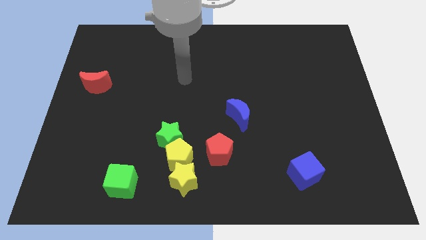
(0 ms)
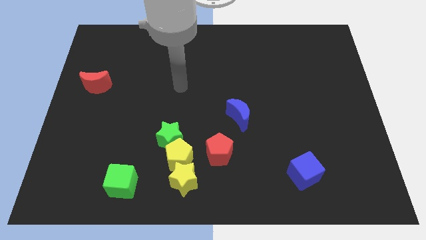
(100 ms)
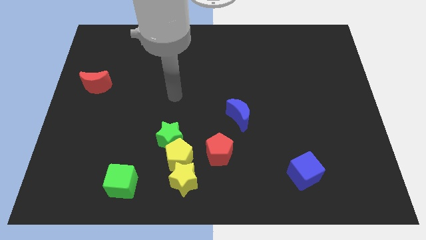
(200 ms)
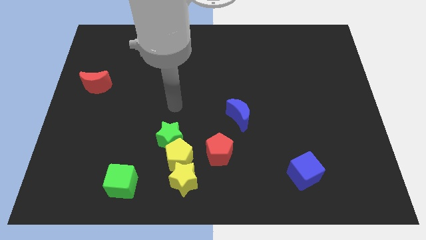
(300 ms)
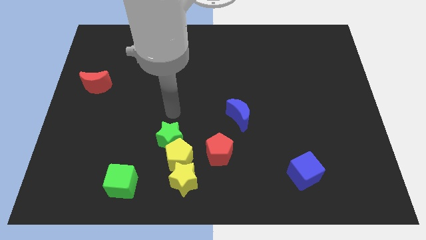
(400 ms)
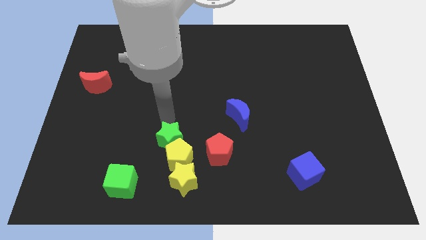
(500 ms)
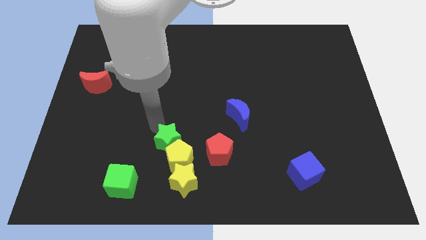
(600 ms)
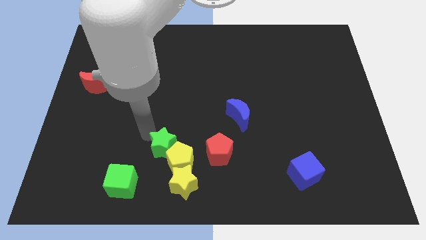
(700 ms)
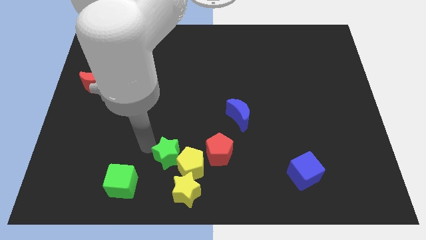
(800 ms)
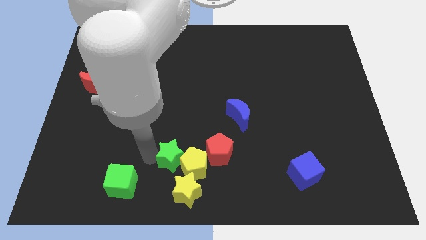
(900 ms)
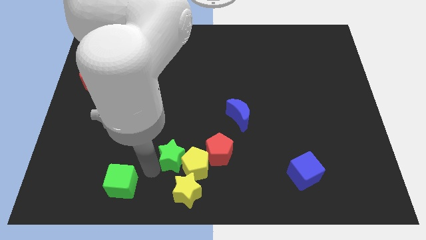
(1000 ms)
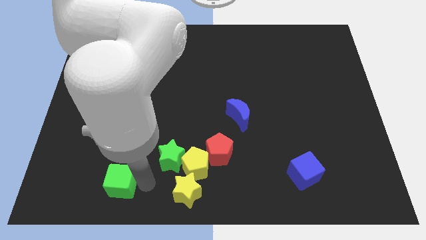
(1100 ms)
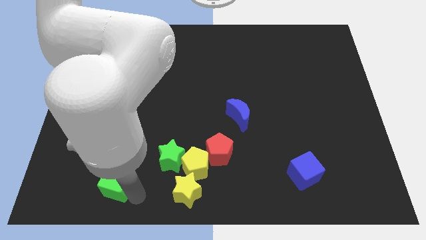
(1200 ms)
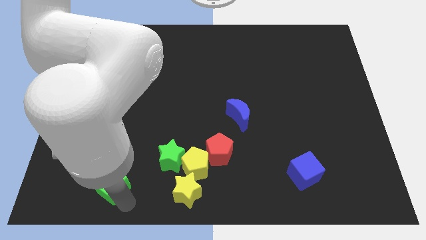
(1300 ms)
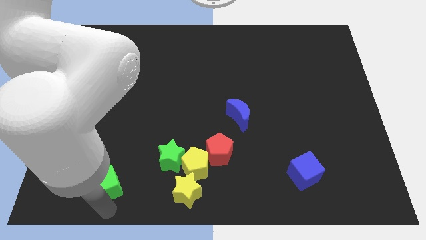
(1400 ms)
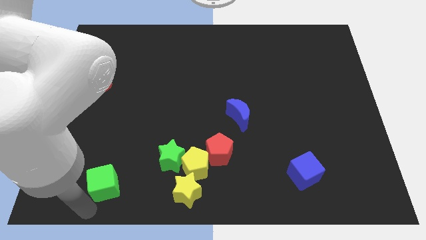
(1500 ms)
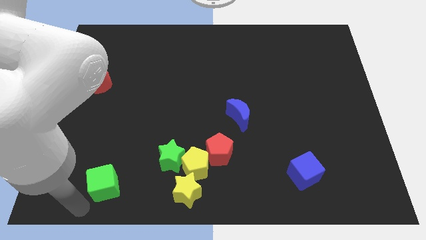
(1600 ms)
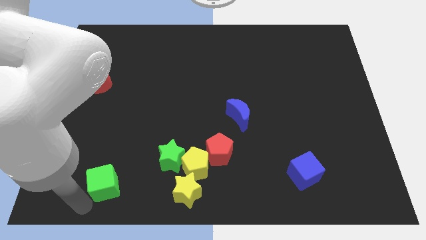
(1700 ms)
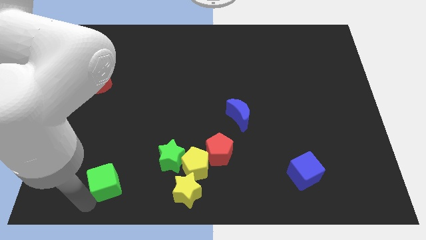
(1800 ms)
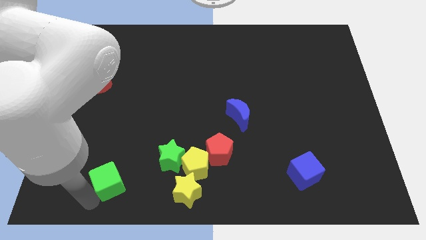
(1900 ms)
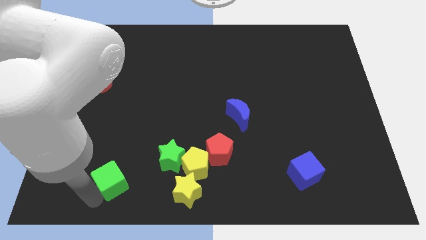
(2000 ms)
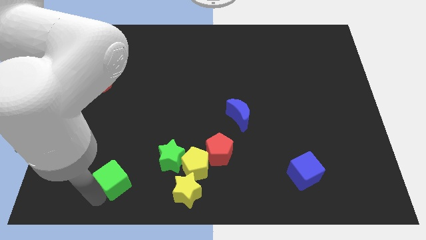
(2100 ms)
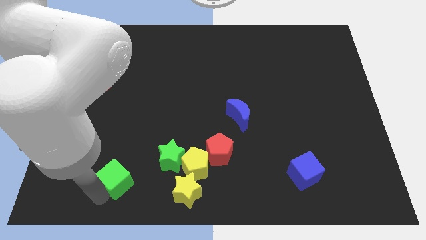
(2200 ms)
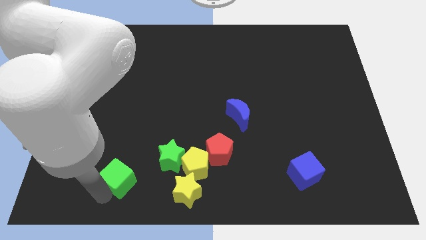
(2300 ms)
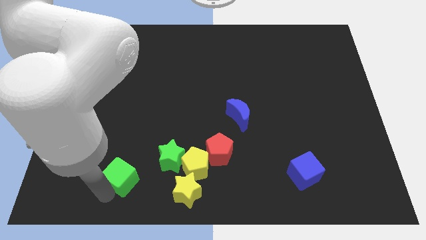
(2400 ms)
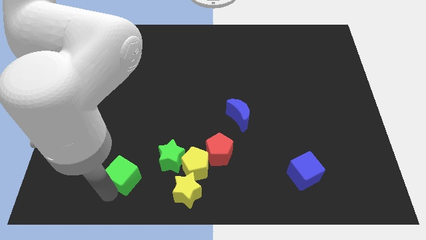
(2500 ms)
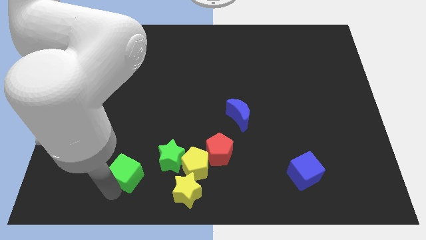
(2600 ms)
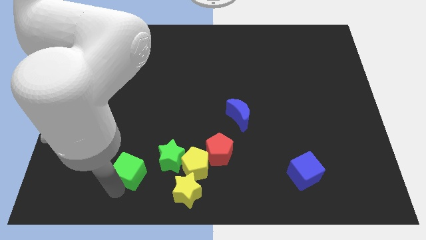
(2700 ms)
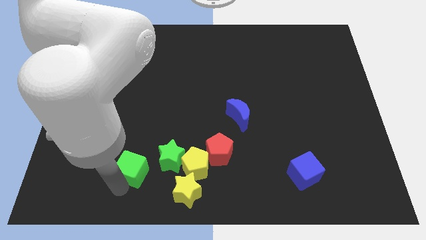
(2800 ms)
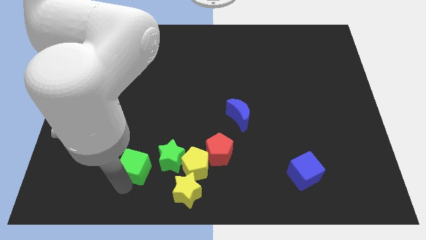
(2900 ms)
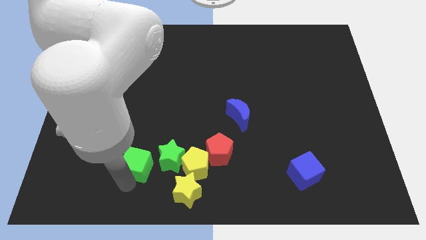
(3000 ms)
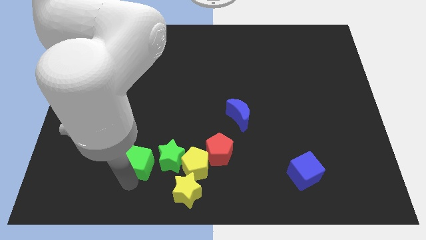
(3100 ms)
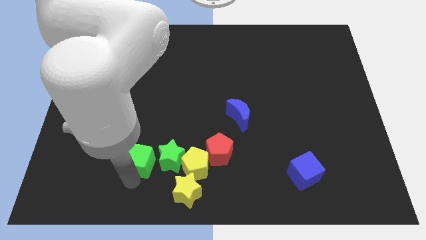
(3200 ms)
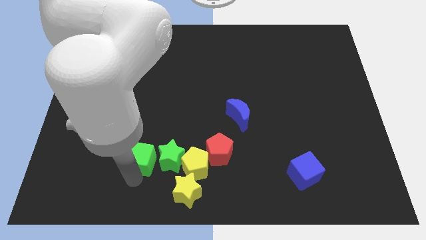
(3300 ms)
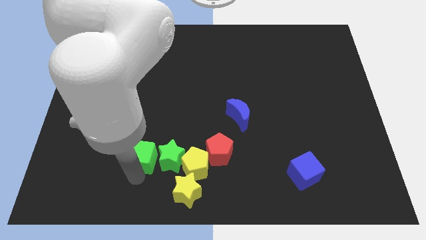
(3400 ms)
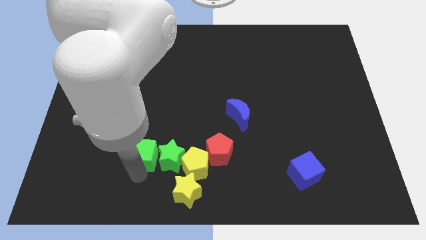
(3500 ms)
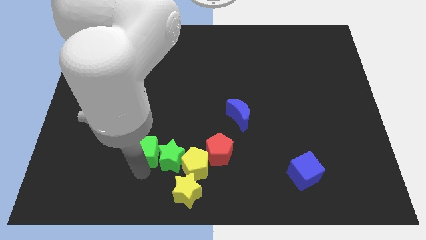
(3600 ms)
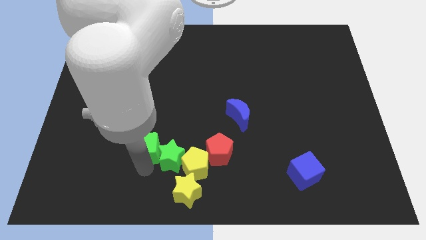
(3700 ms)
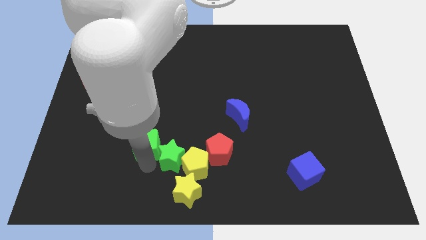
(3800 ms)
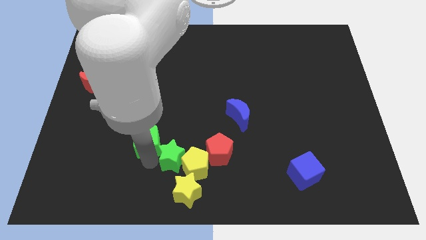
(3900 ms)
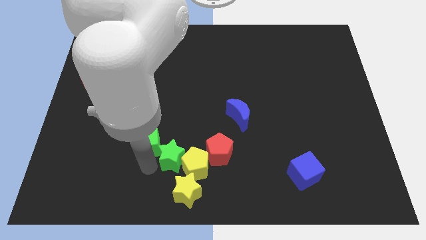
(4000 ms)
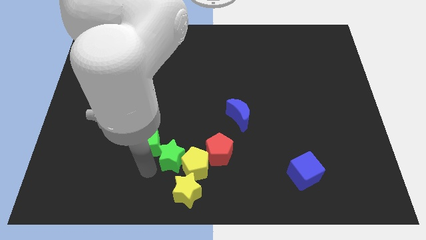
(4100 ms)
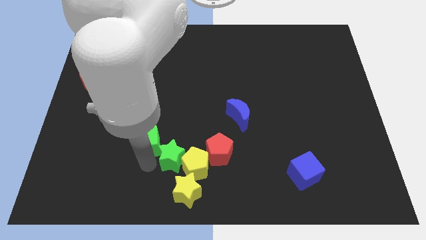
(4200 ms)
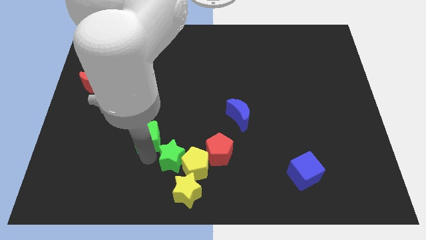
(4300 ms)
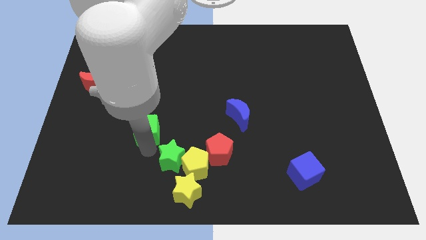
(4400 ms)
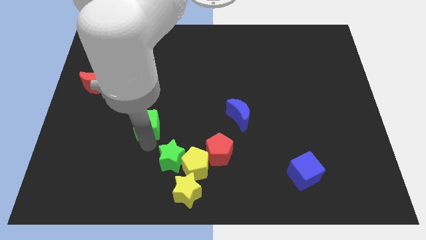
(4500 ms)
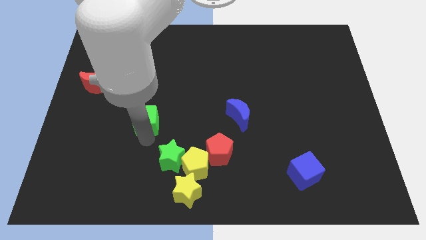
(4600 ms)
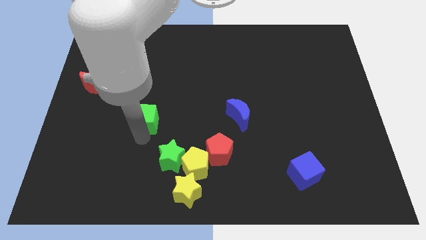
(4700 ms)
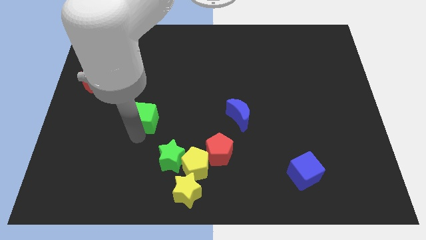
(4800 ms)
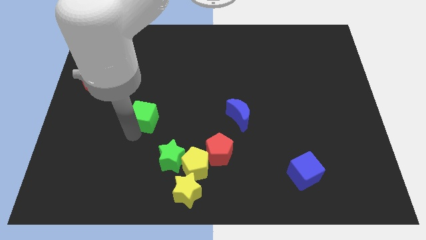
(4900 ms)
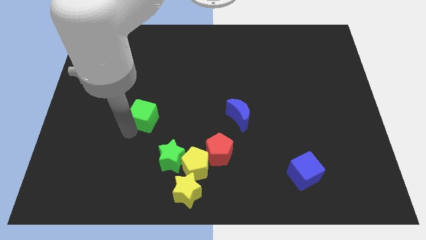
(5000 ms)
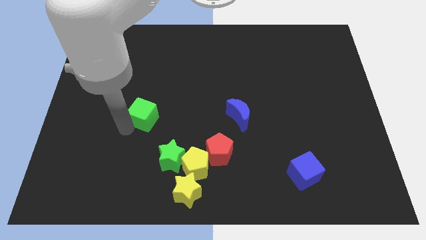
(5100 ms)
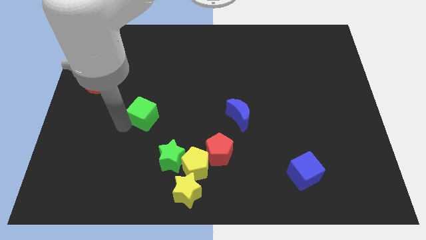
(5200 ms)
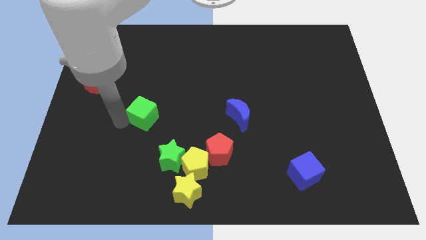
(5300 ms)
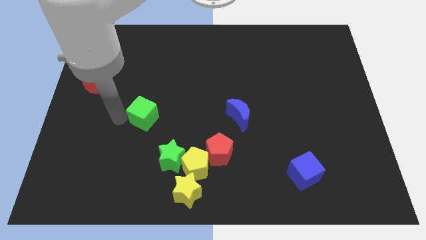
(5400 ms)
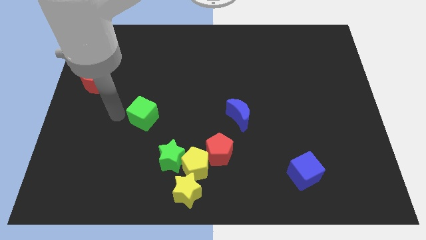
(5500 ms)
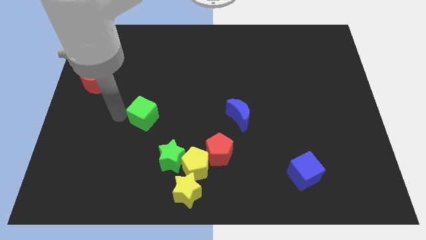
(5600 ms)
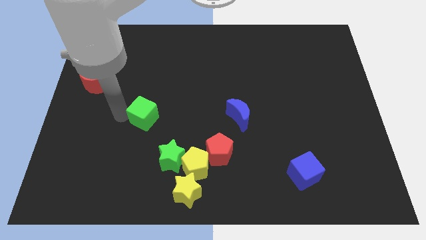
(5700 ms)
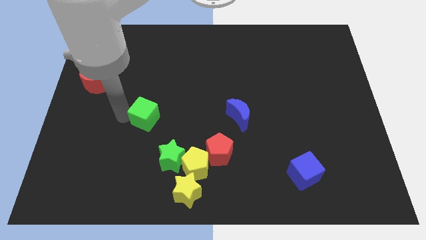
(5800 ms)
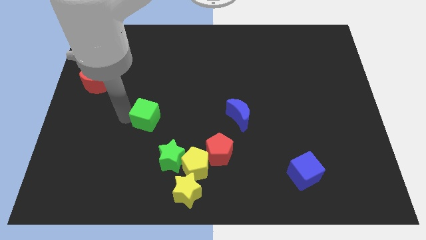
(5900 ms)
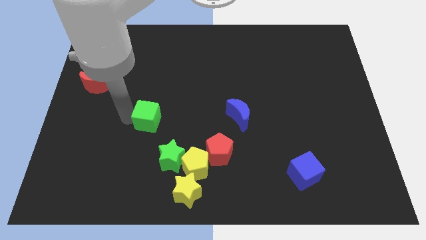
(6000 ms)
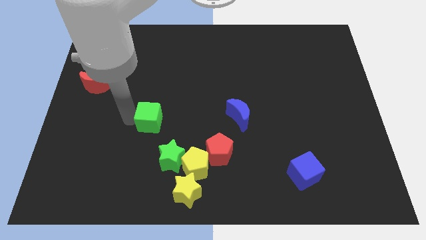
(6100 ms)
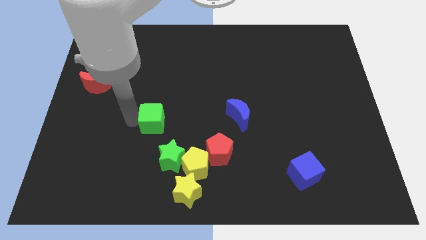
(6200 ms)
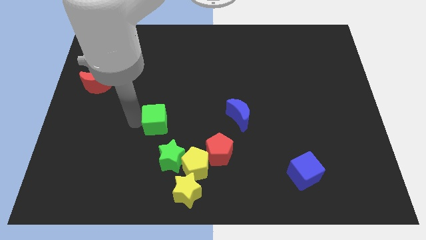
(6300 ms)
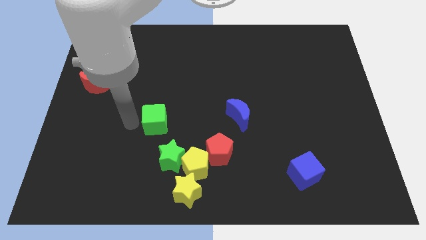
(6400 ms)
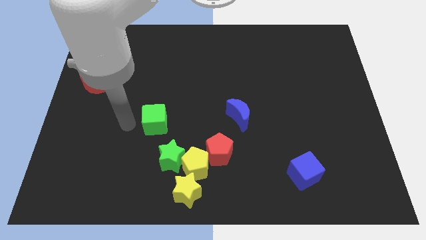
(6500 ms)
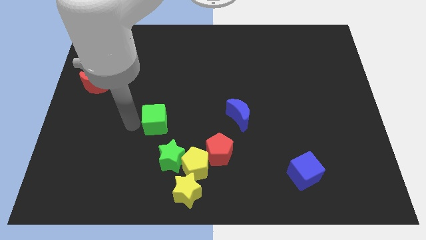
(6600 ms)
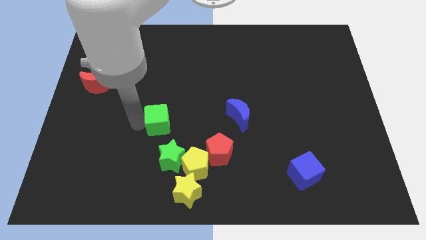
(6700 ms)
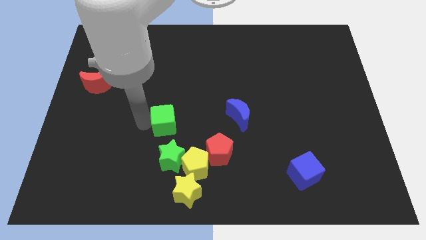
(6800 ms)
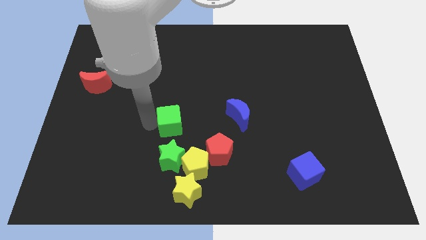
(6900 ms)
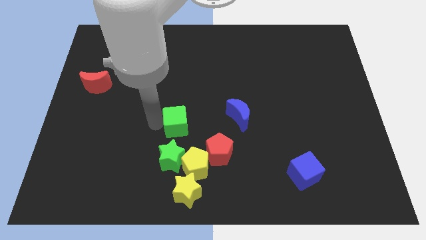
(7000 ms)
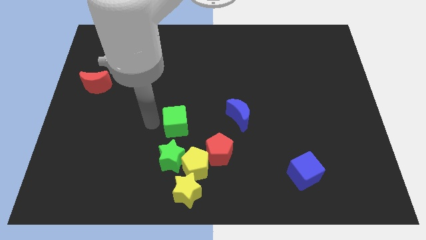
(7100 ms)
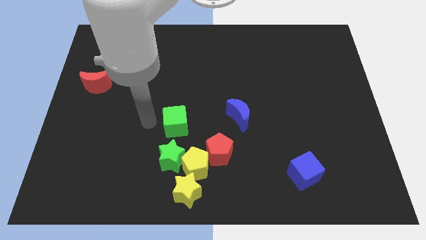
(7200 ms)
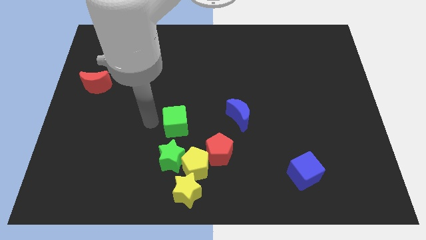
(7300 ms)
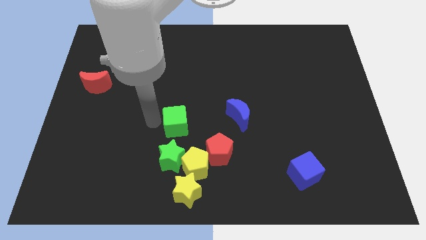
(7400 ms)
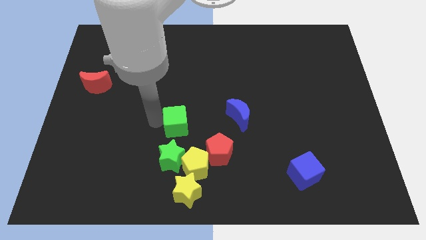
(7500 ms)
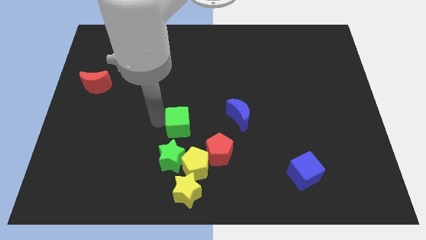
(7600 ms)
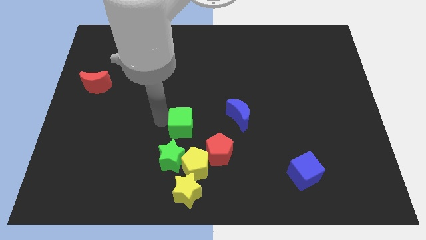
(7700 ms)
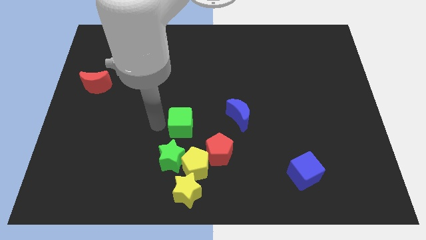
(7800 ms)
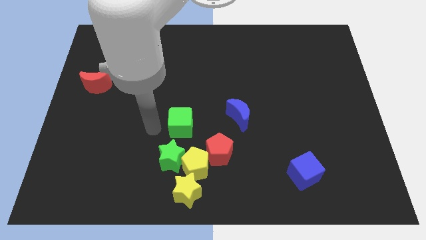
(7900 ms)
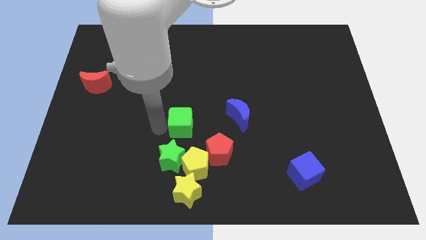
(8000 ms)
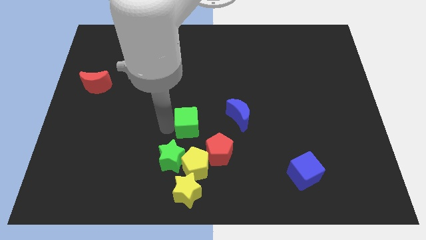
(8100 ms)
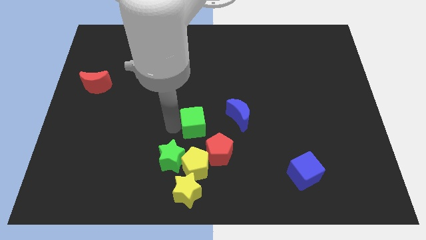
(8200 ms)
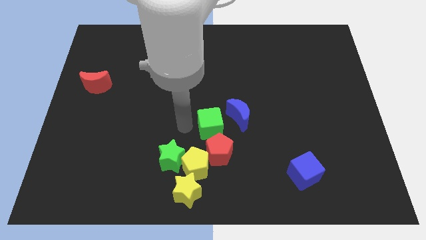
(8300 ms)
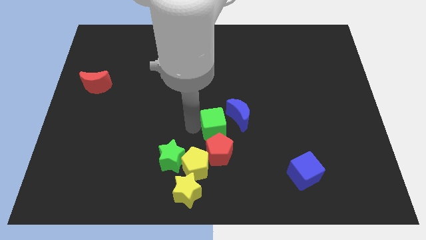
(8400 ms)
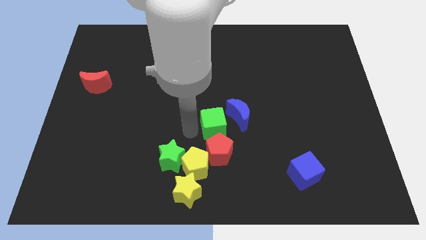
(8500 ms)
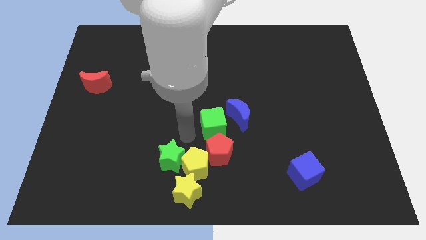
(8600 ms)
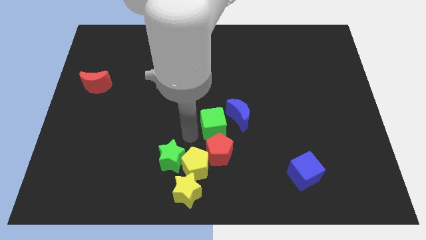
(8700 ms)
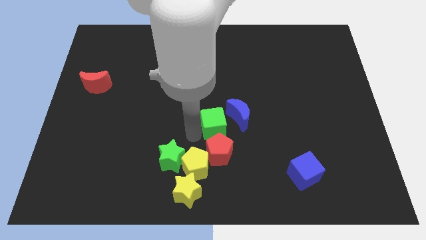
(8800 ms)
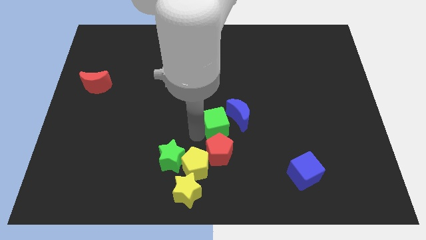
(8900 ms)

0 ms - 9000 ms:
move the green cube towards the blue moon
